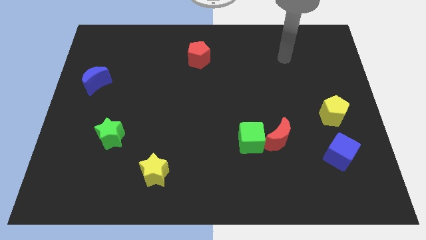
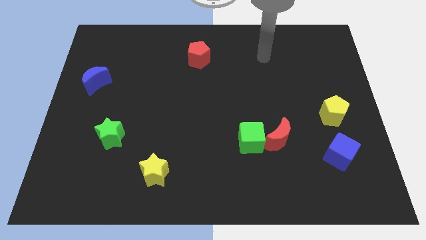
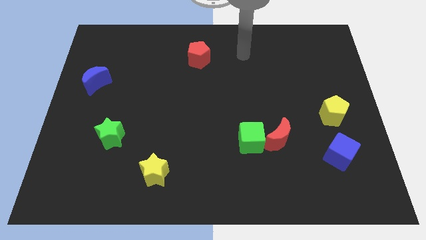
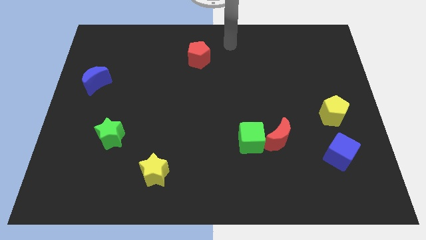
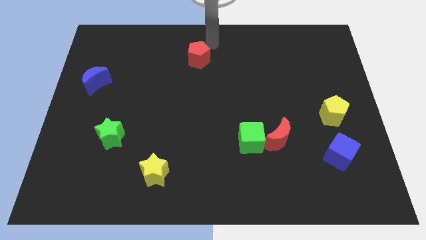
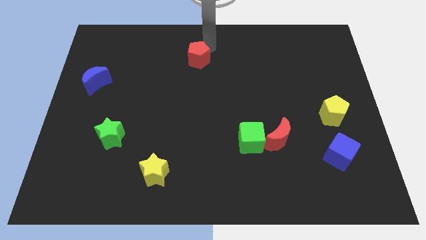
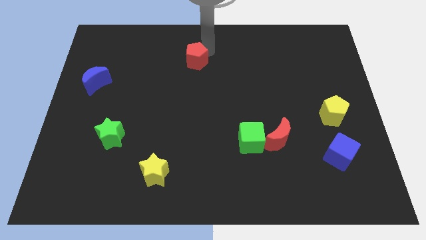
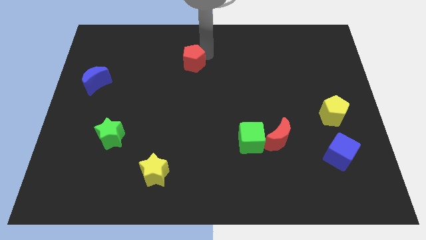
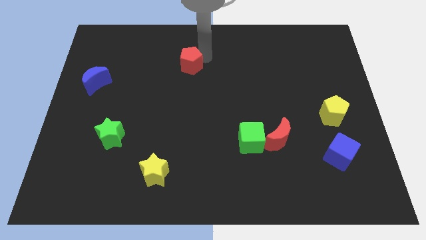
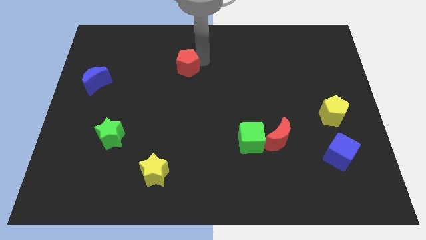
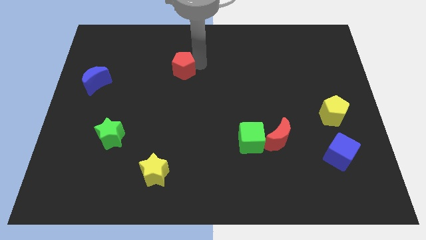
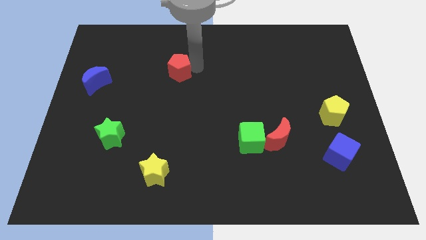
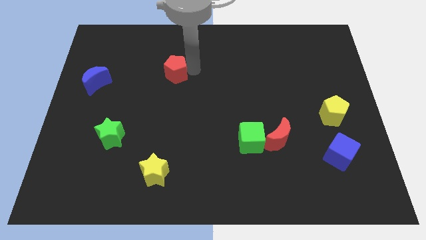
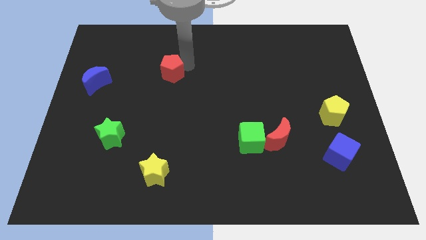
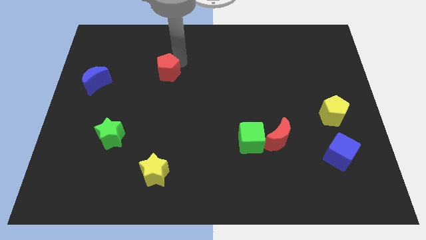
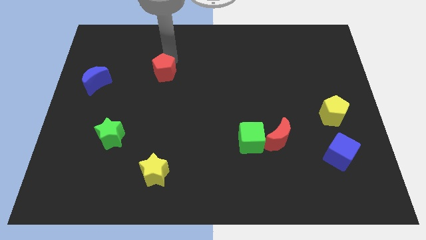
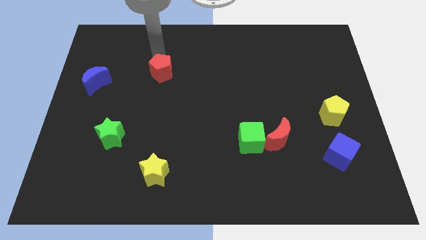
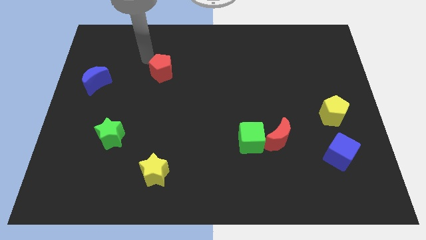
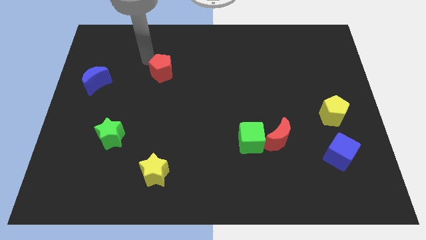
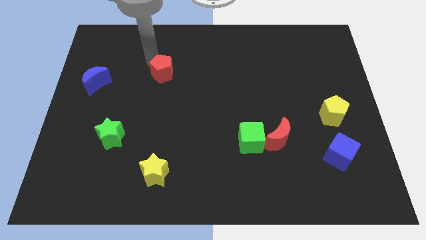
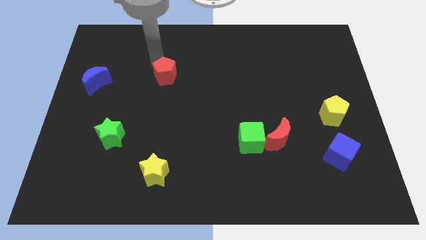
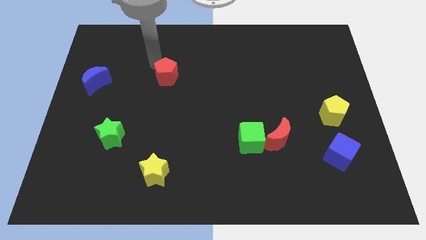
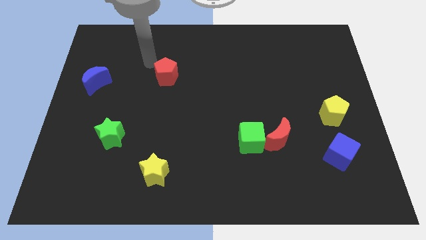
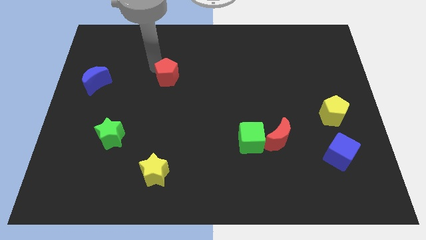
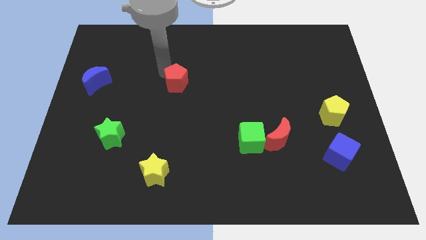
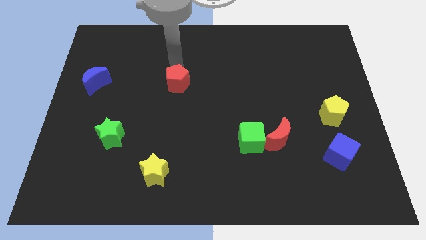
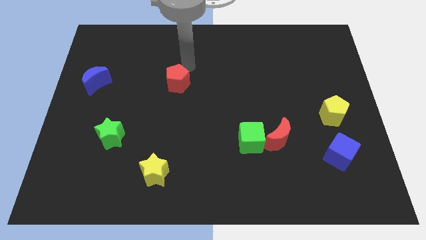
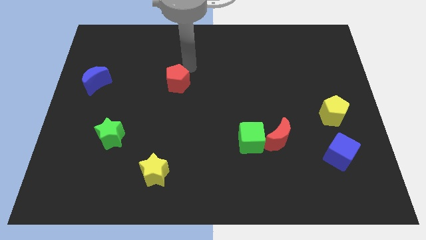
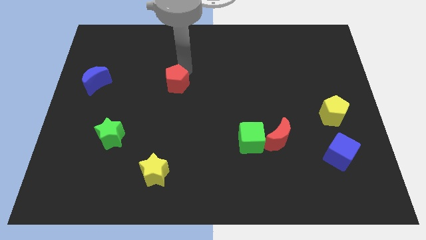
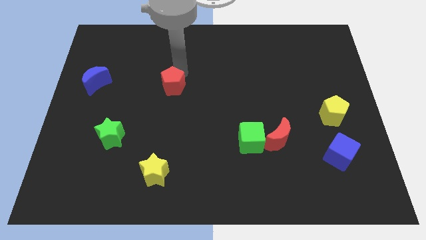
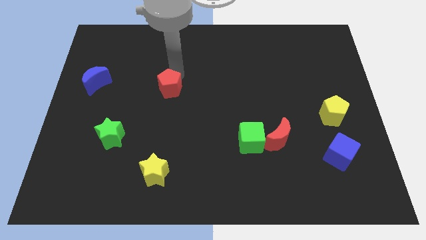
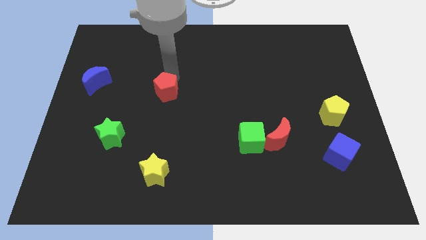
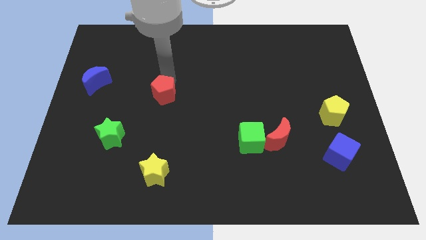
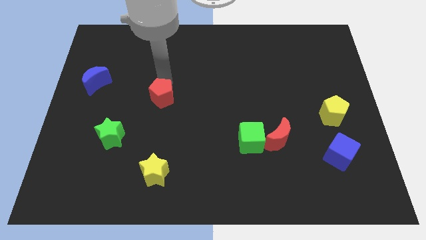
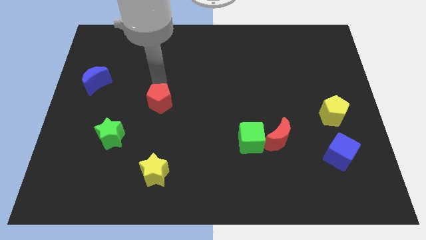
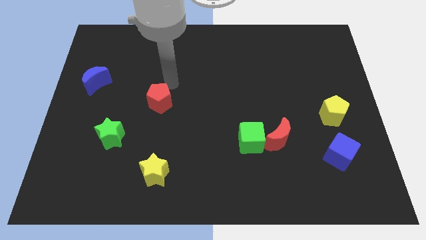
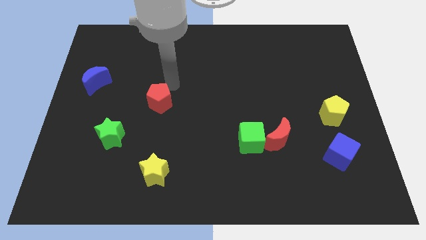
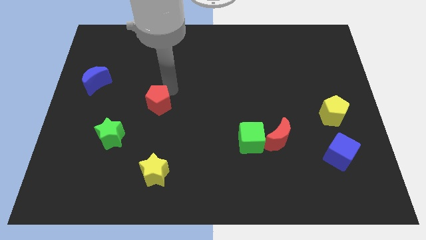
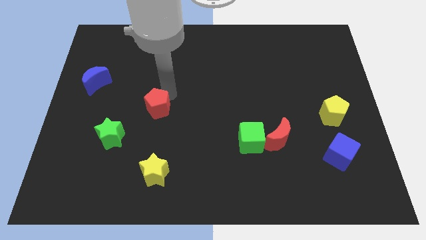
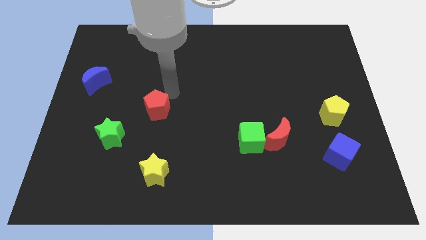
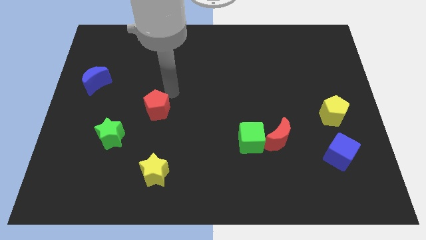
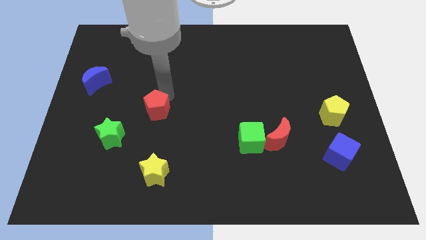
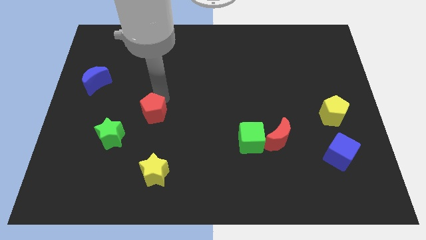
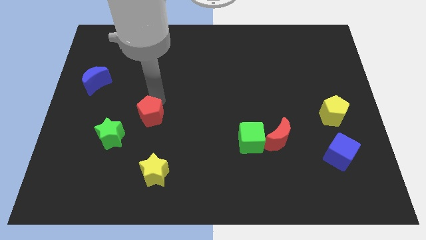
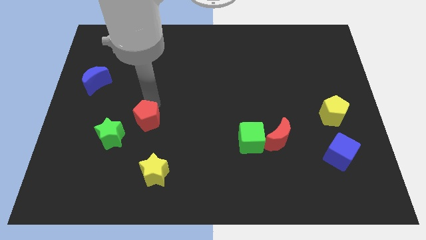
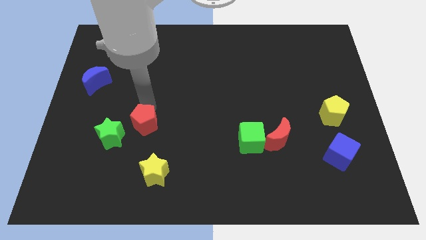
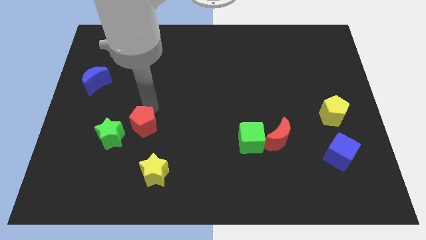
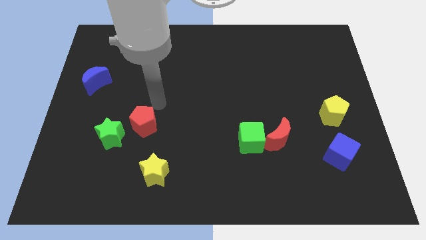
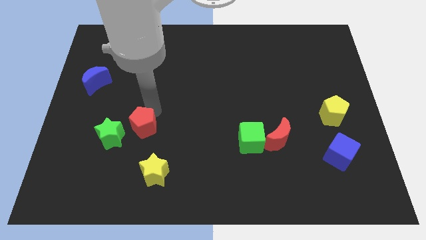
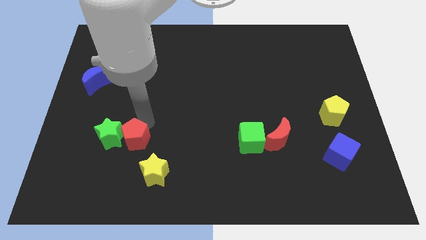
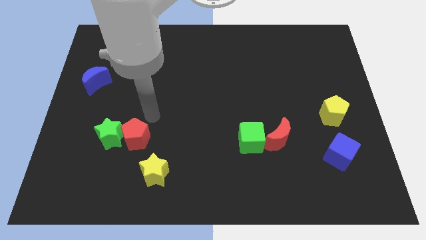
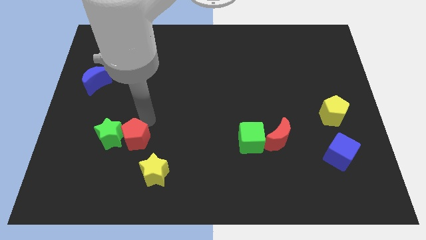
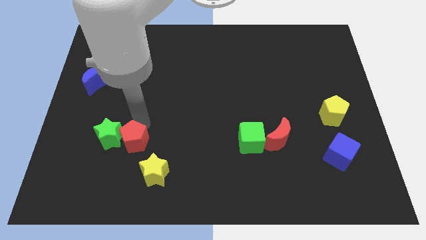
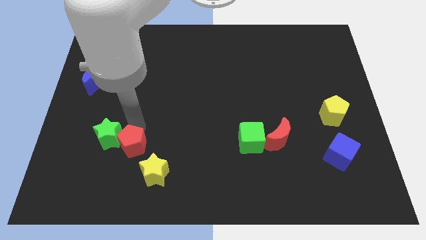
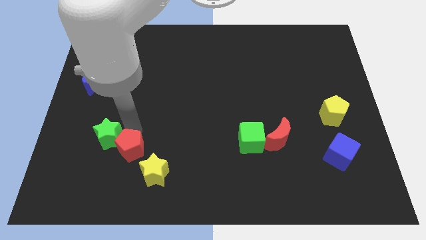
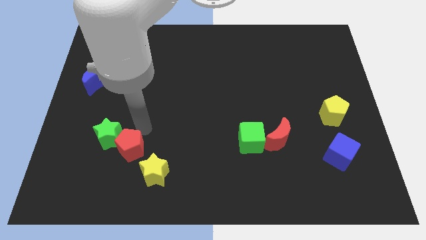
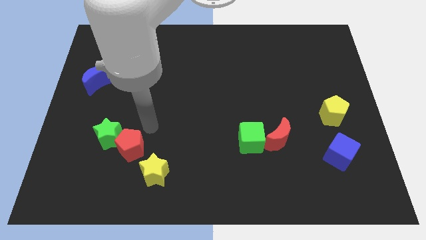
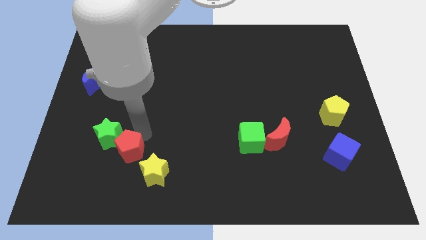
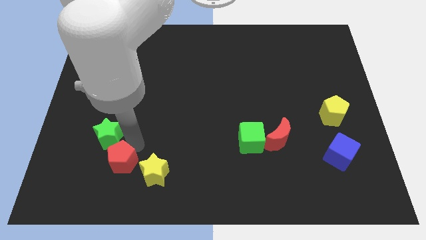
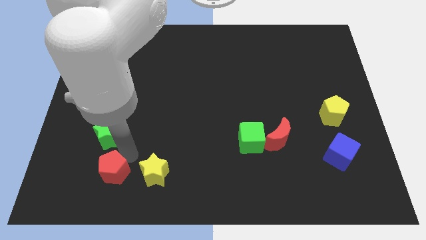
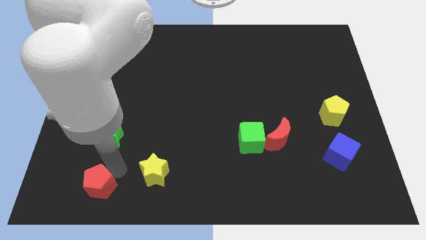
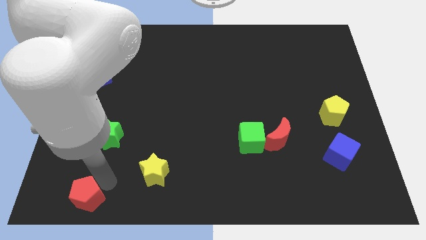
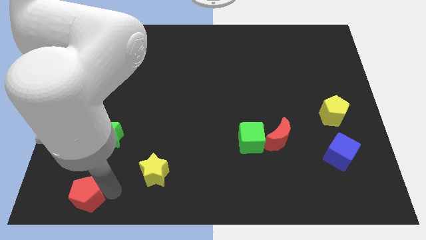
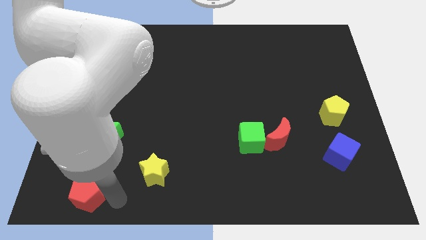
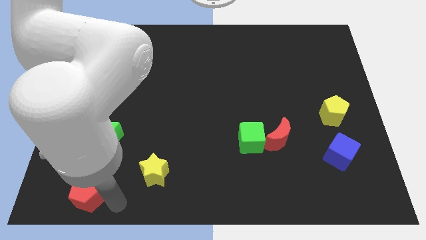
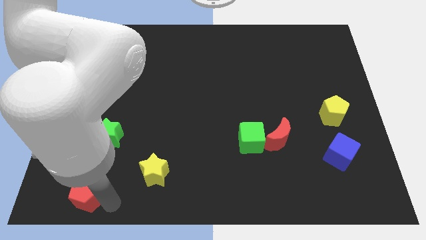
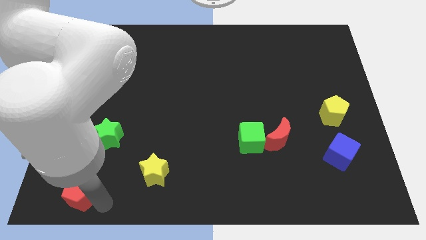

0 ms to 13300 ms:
slide the red pentagon to the lower left corner

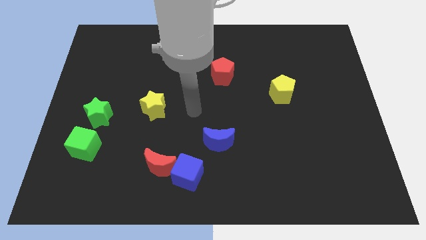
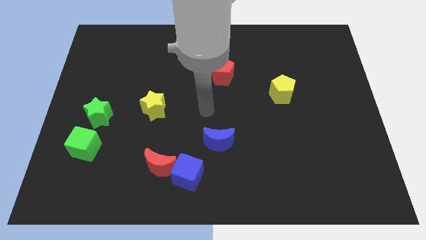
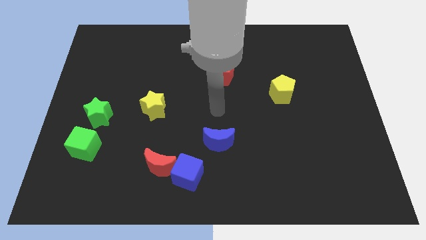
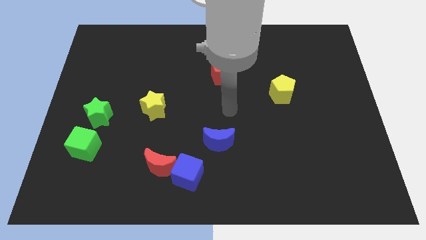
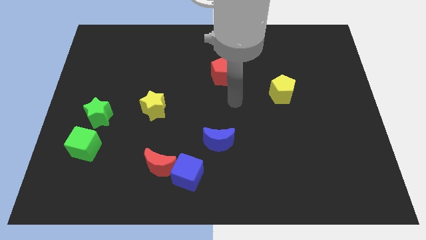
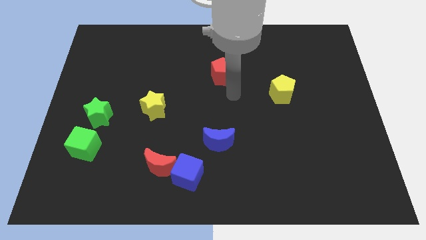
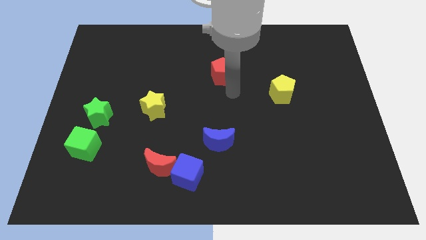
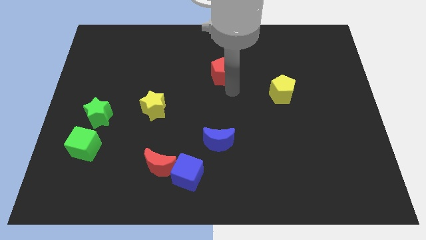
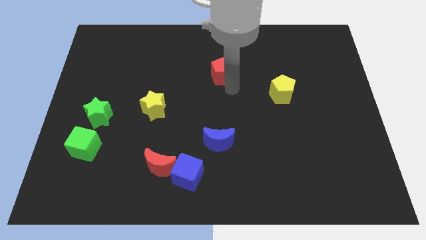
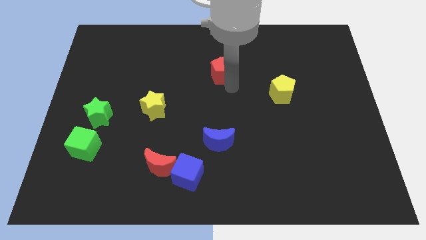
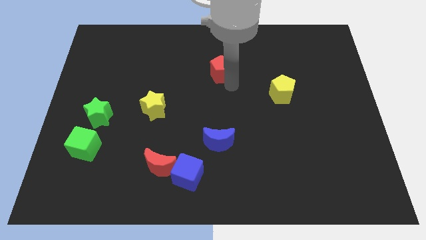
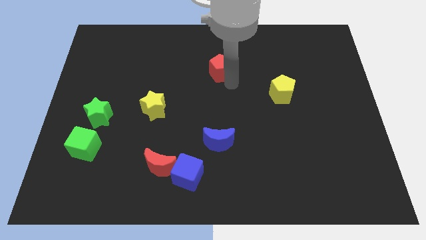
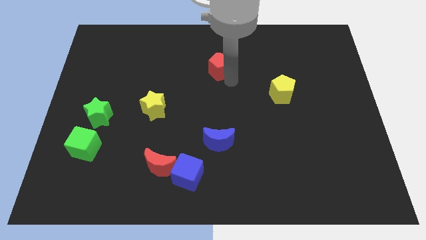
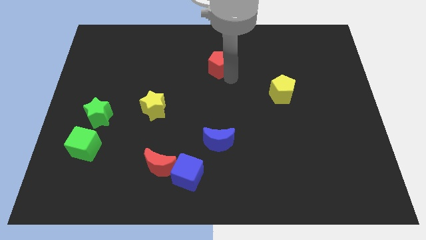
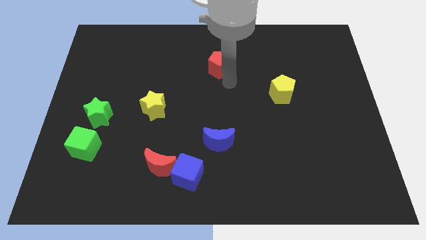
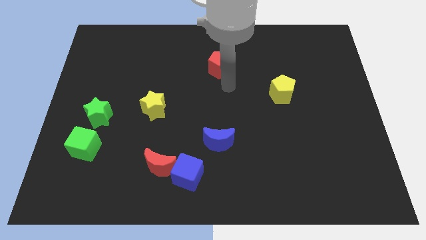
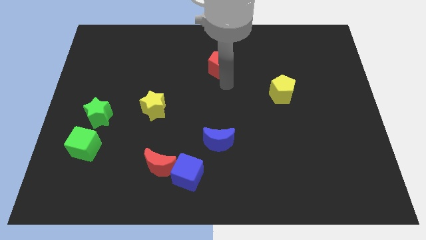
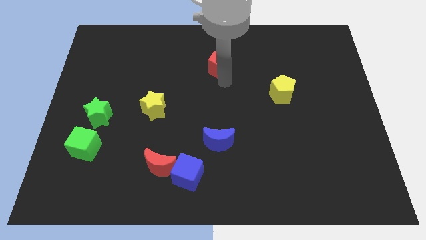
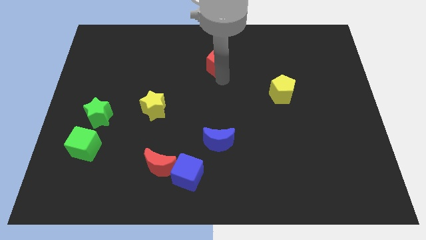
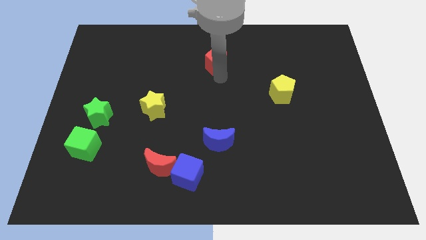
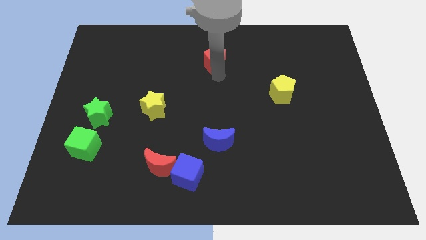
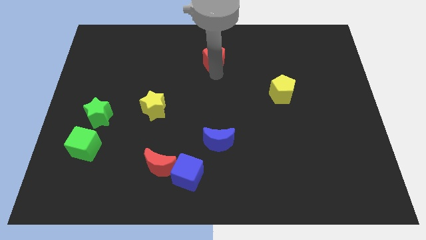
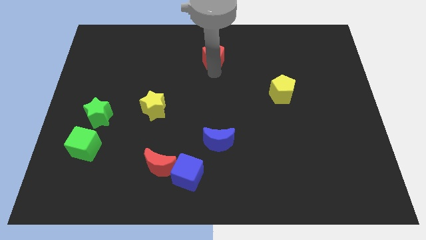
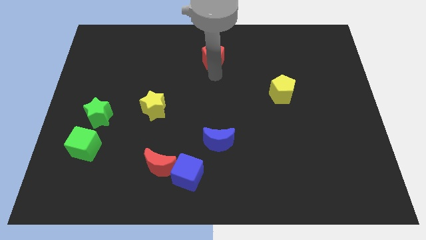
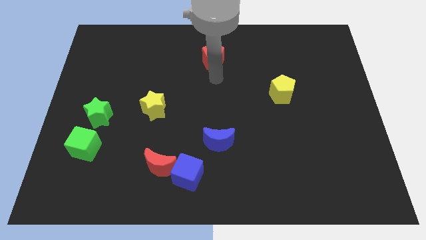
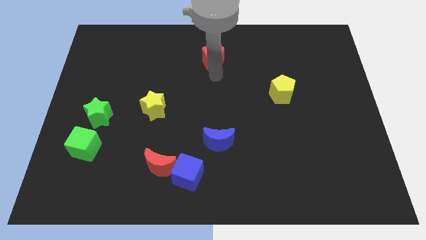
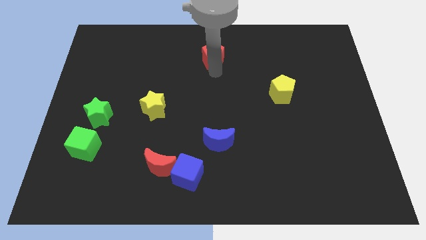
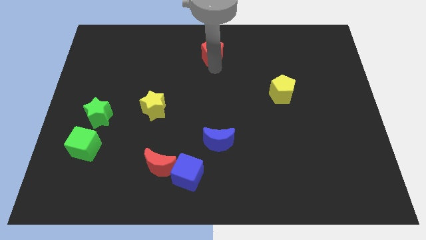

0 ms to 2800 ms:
put the red pentagon to the top
